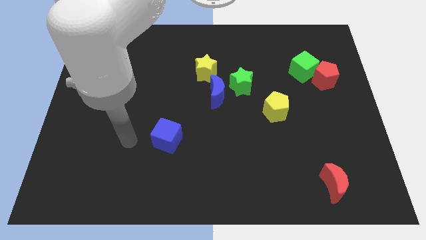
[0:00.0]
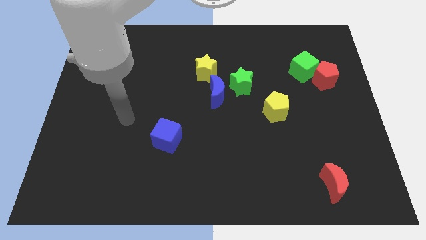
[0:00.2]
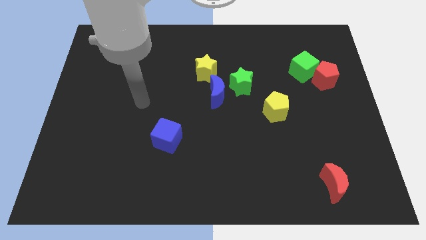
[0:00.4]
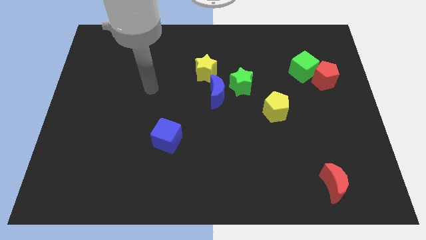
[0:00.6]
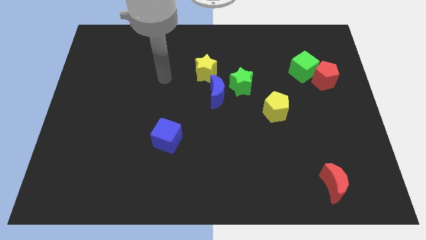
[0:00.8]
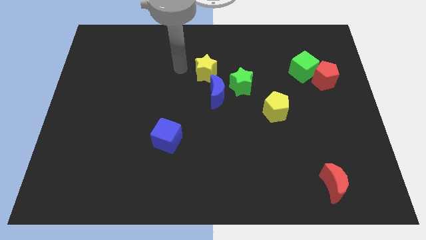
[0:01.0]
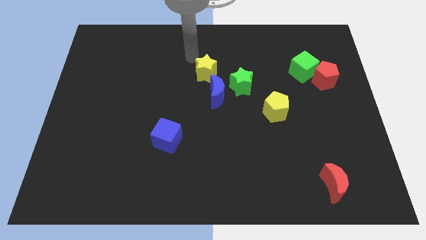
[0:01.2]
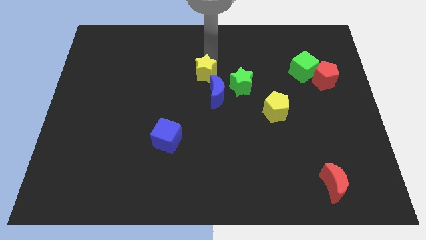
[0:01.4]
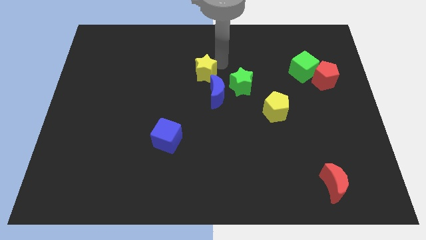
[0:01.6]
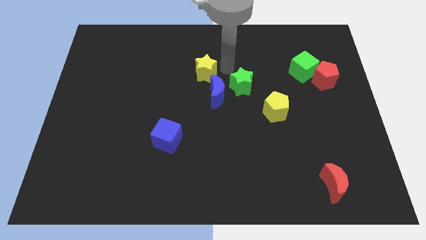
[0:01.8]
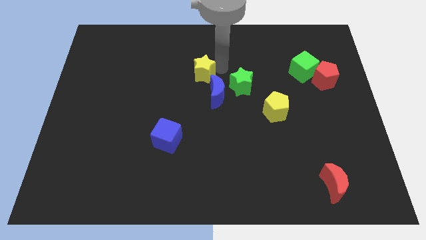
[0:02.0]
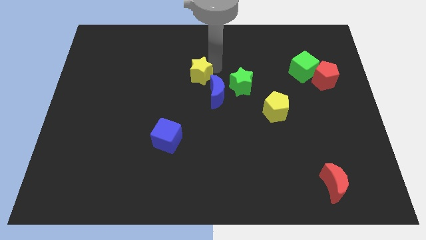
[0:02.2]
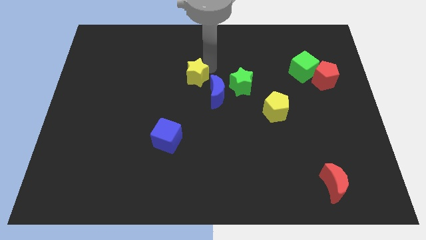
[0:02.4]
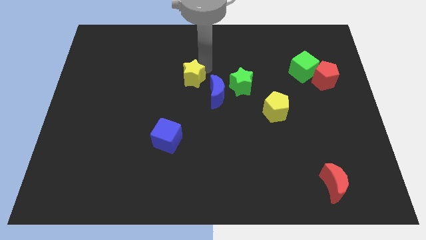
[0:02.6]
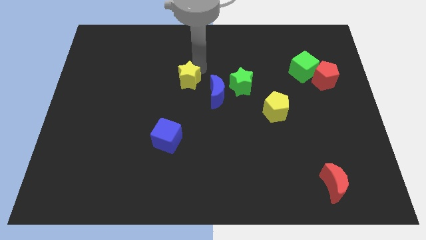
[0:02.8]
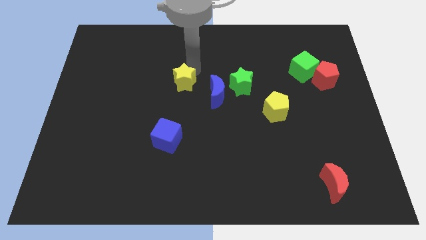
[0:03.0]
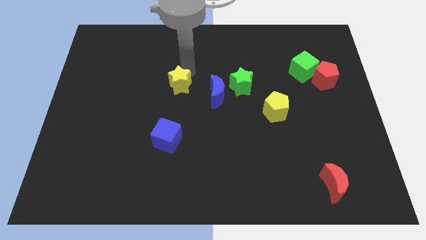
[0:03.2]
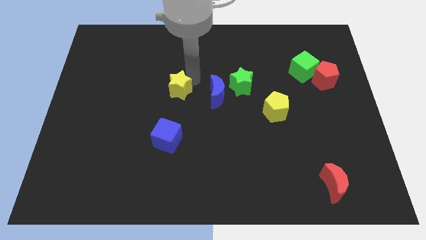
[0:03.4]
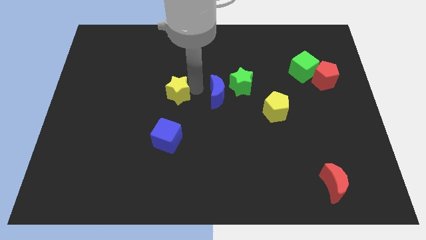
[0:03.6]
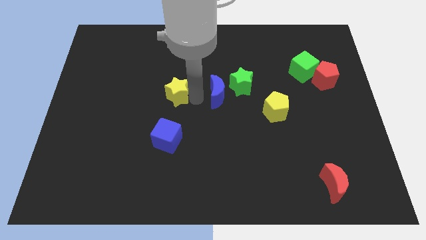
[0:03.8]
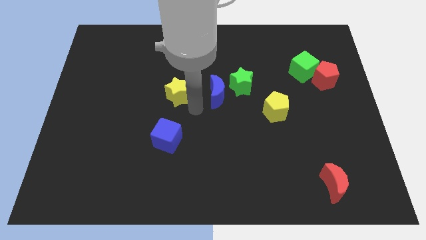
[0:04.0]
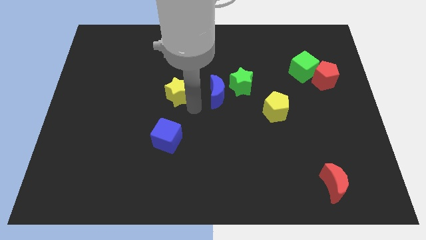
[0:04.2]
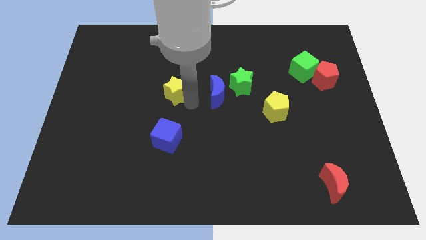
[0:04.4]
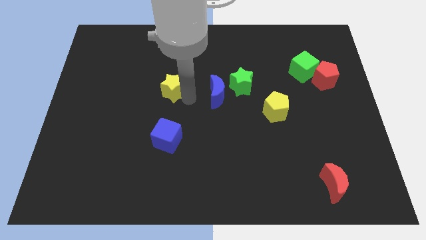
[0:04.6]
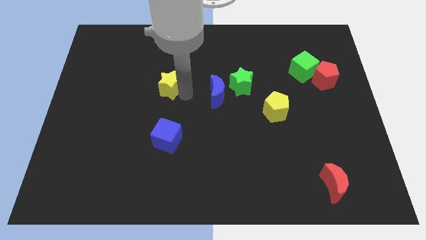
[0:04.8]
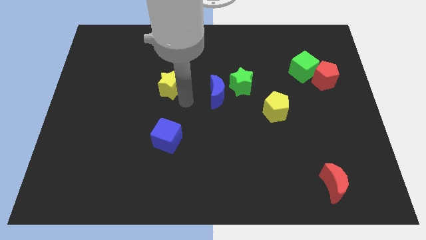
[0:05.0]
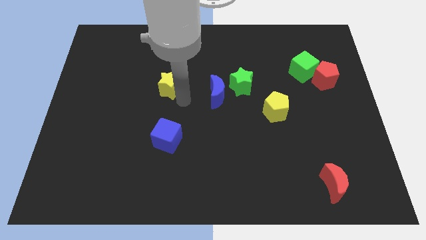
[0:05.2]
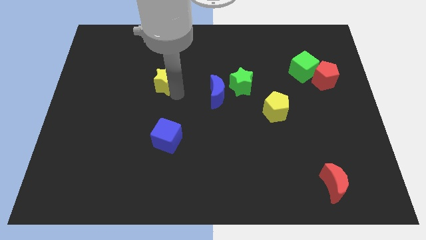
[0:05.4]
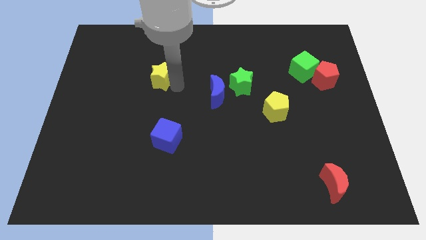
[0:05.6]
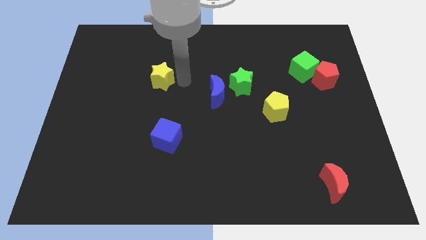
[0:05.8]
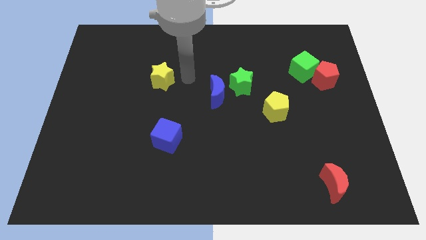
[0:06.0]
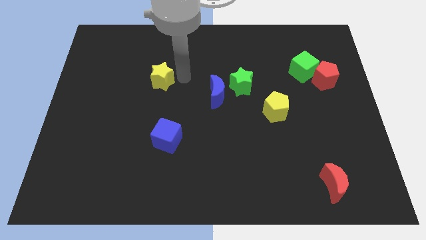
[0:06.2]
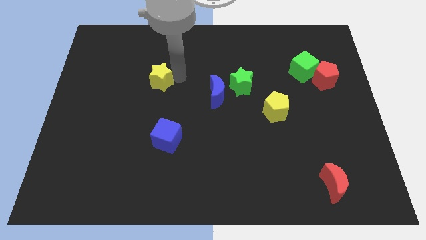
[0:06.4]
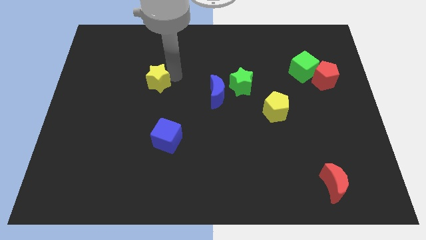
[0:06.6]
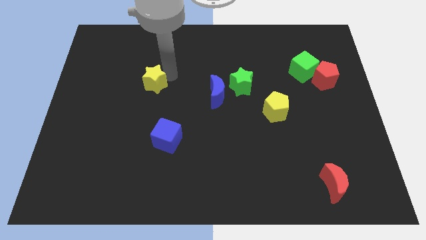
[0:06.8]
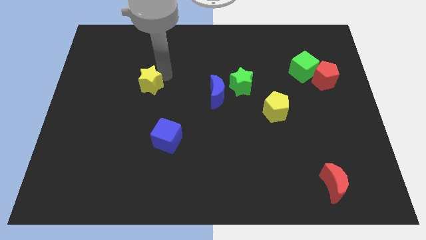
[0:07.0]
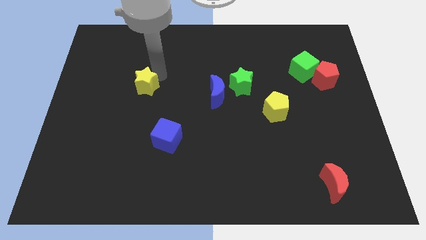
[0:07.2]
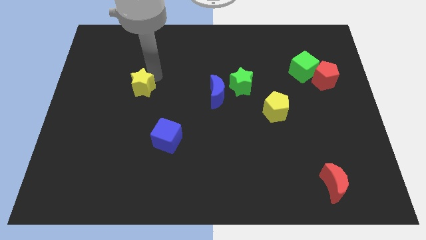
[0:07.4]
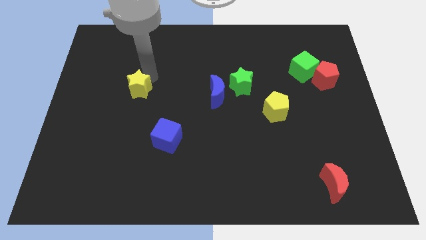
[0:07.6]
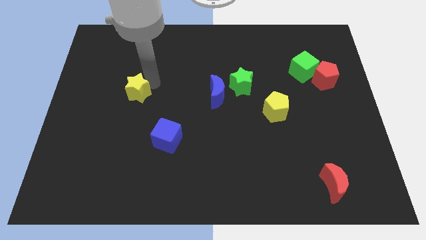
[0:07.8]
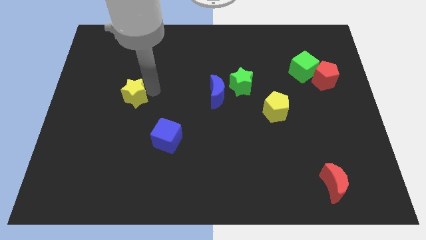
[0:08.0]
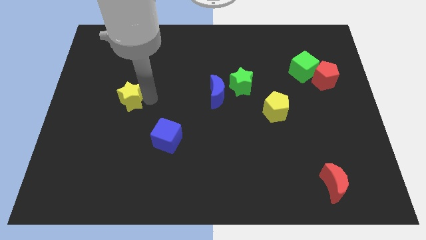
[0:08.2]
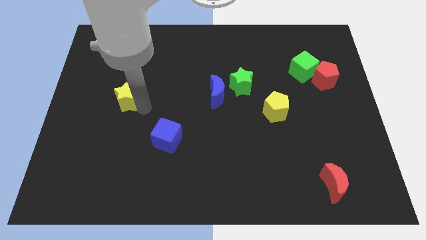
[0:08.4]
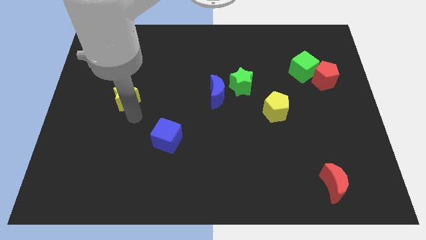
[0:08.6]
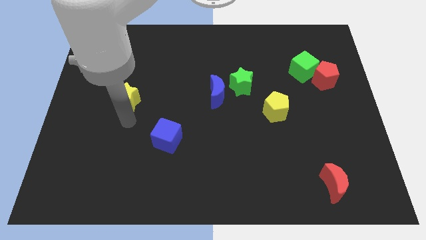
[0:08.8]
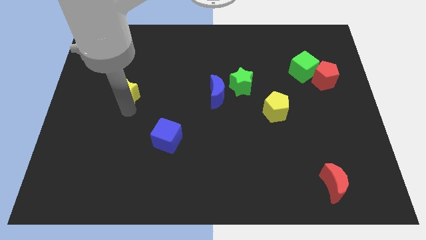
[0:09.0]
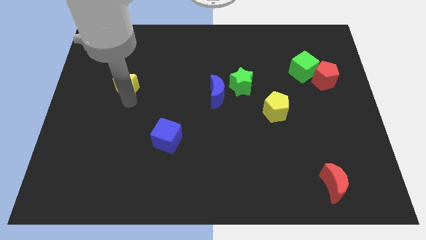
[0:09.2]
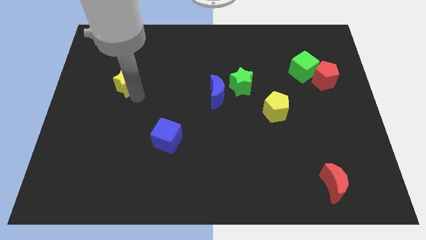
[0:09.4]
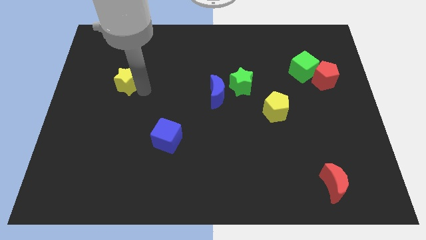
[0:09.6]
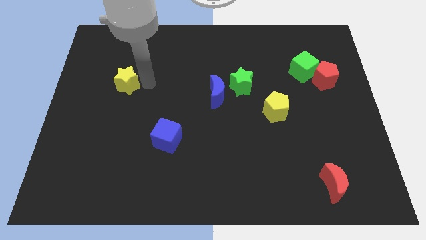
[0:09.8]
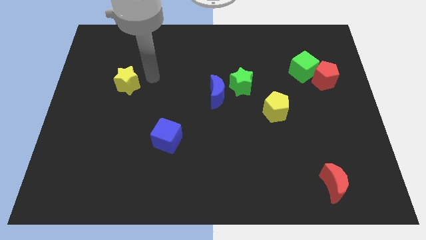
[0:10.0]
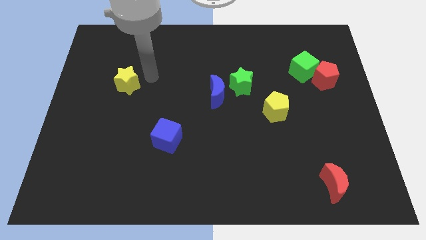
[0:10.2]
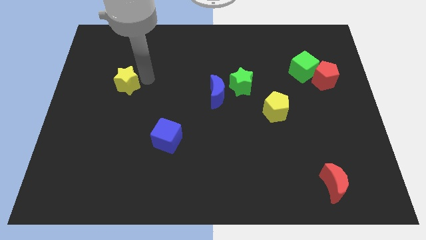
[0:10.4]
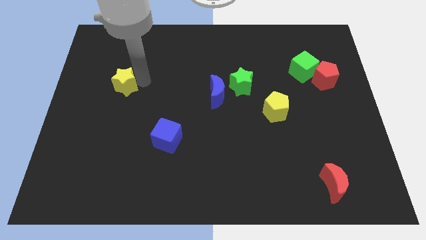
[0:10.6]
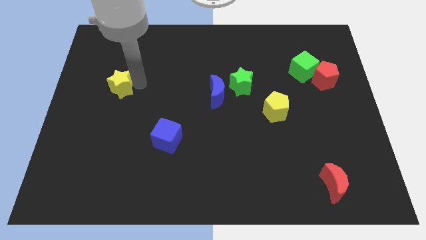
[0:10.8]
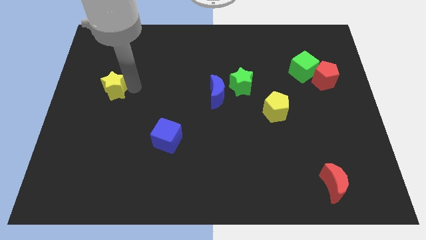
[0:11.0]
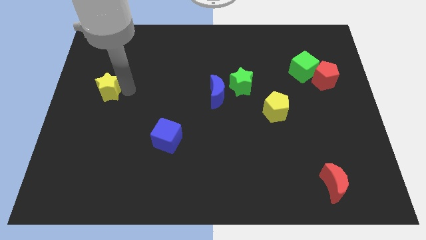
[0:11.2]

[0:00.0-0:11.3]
push the yellow star to the left side

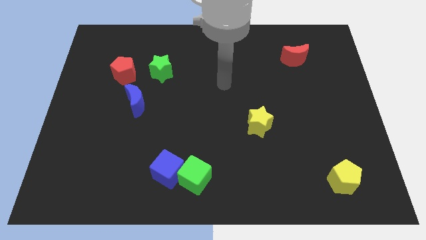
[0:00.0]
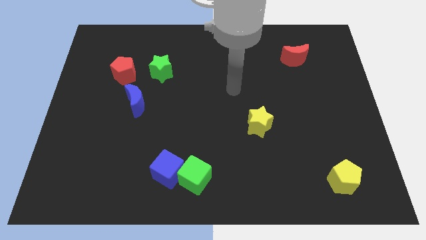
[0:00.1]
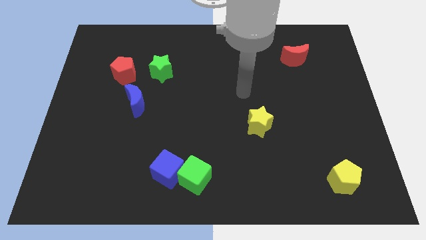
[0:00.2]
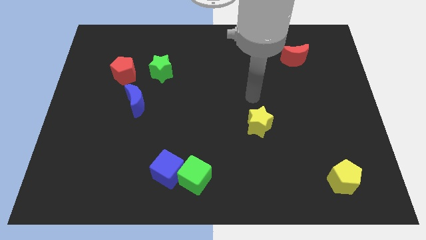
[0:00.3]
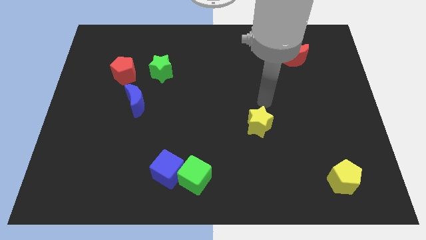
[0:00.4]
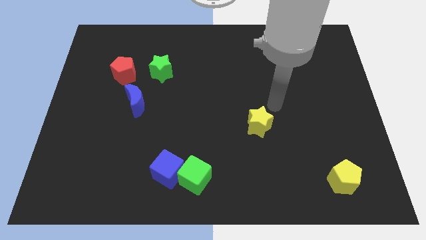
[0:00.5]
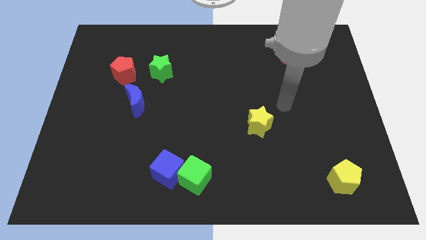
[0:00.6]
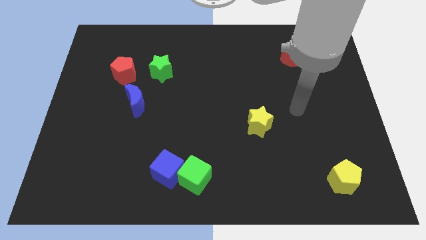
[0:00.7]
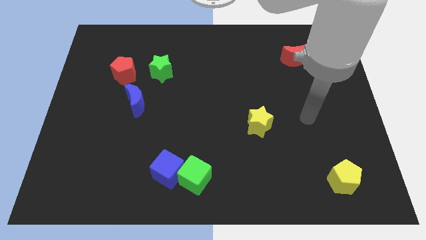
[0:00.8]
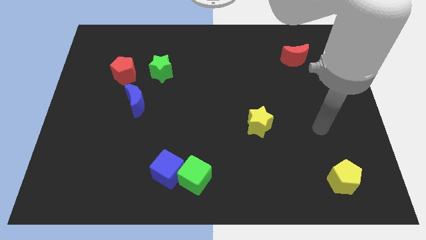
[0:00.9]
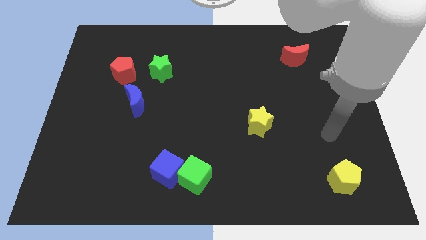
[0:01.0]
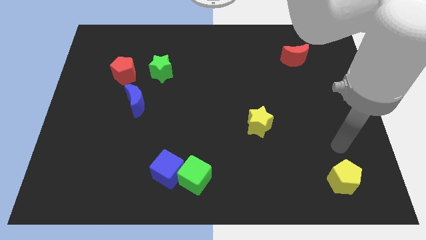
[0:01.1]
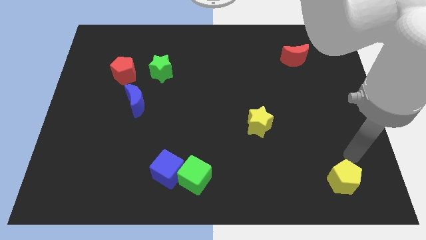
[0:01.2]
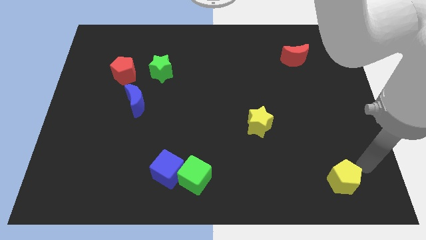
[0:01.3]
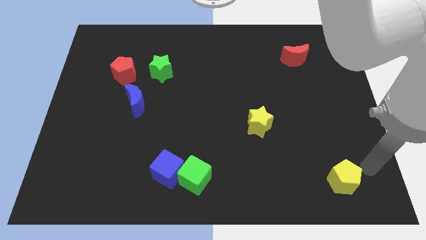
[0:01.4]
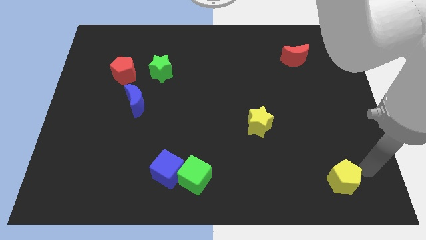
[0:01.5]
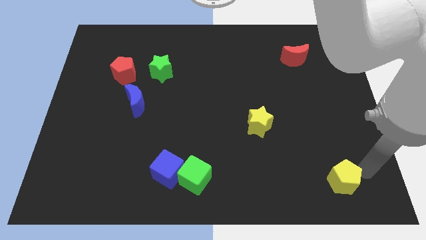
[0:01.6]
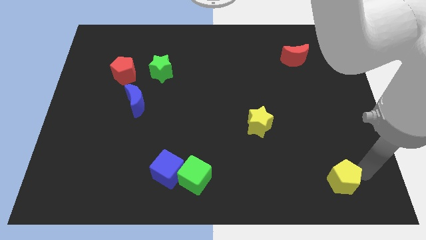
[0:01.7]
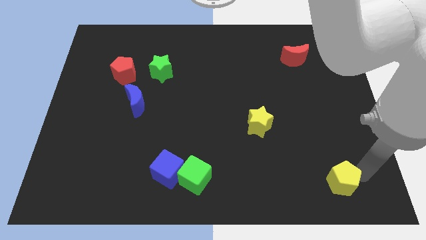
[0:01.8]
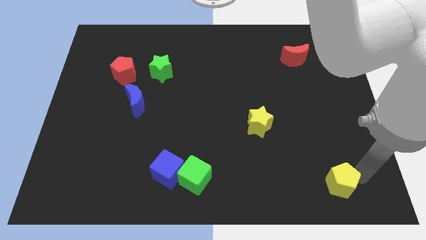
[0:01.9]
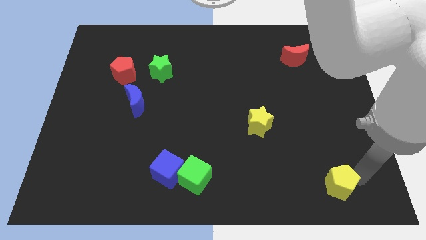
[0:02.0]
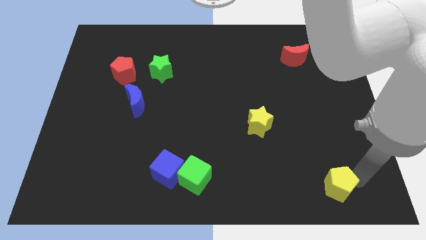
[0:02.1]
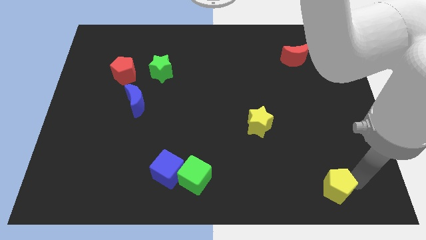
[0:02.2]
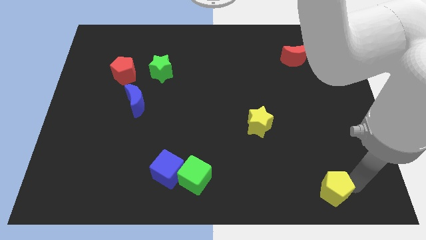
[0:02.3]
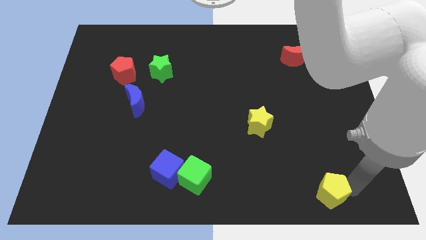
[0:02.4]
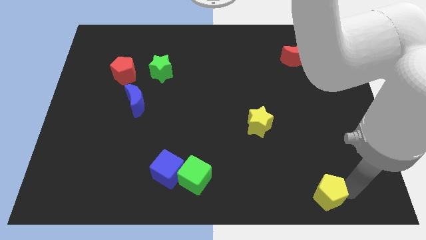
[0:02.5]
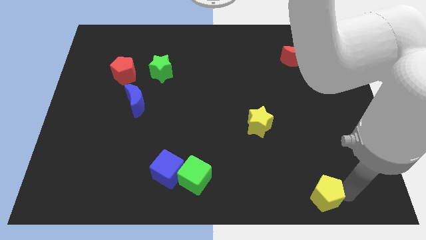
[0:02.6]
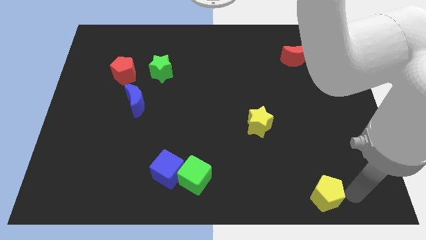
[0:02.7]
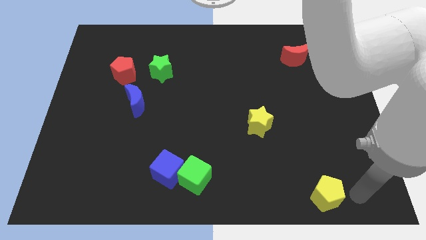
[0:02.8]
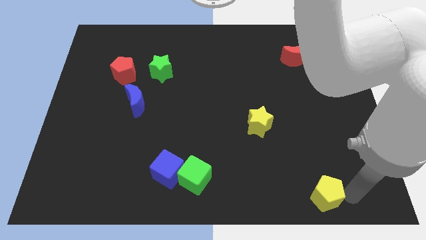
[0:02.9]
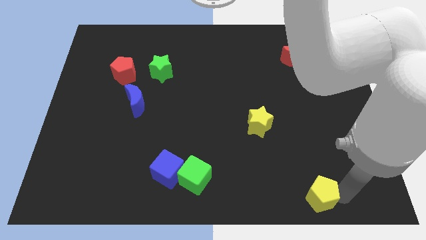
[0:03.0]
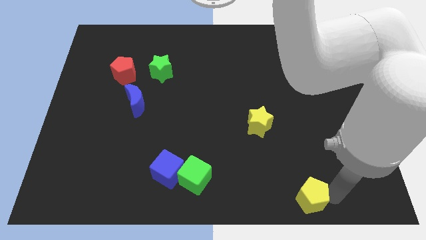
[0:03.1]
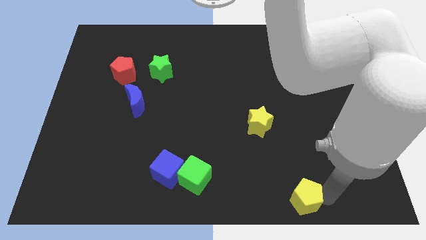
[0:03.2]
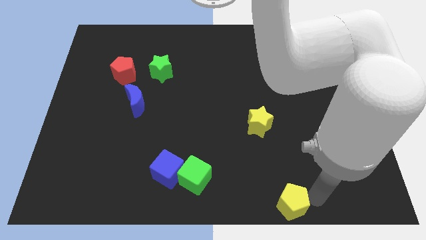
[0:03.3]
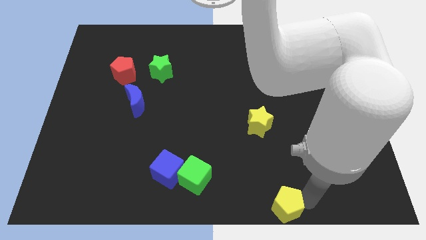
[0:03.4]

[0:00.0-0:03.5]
put the yellow pentagon to the bottom side
